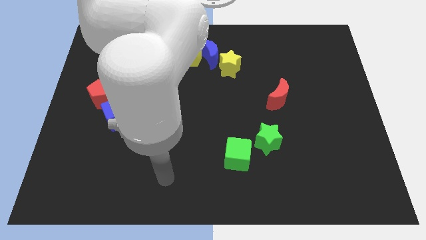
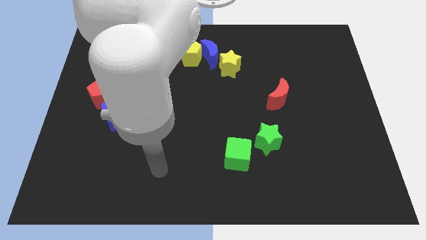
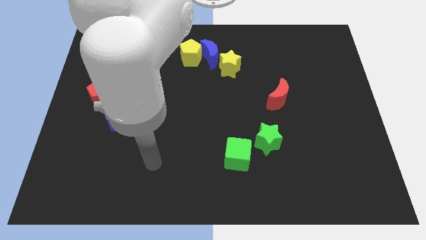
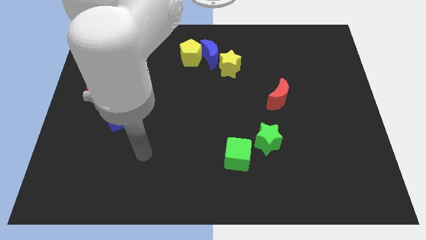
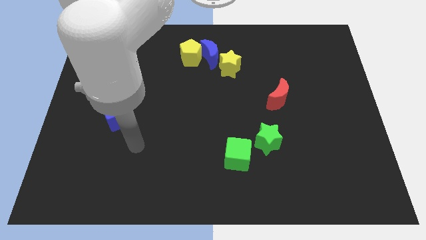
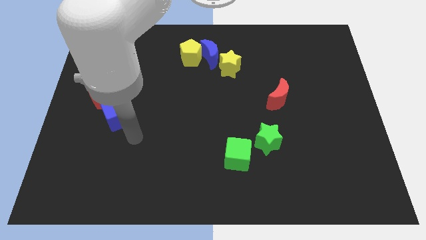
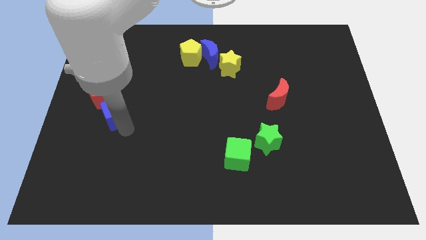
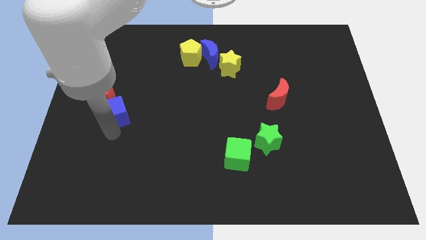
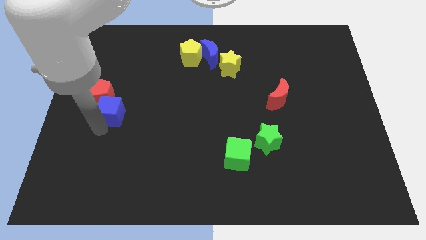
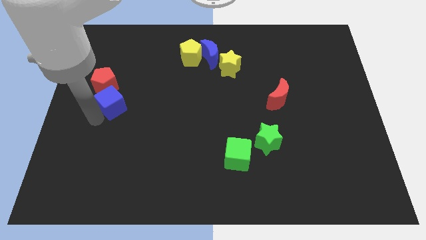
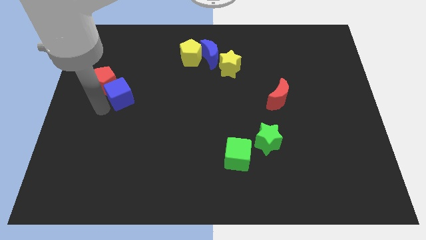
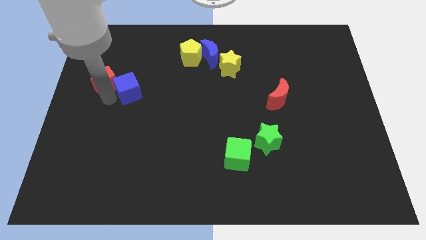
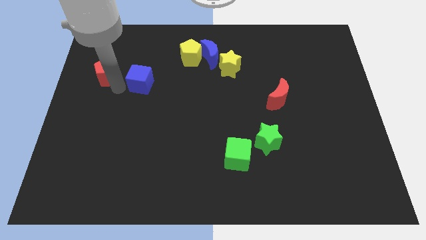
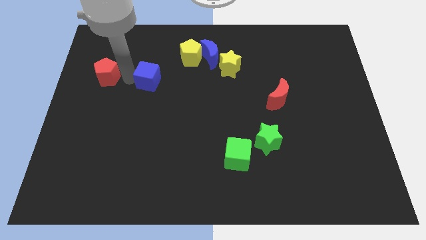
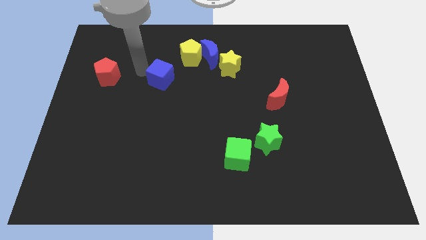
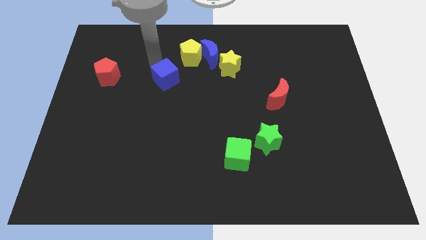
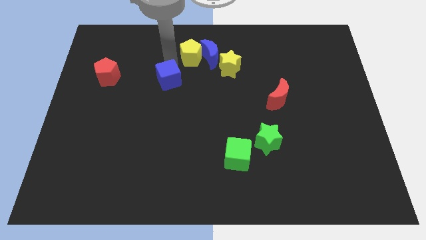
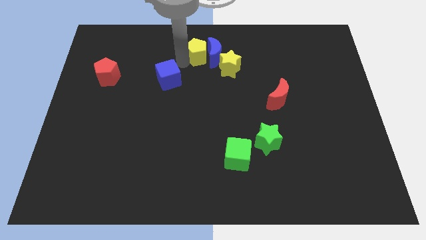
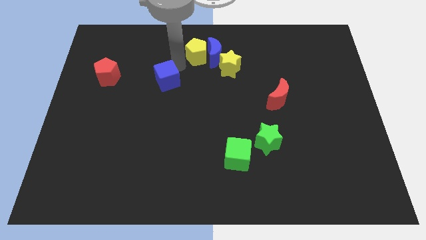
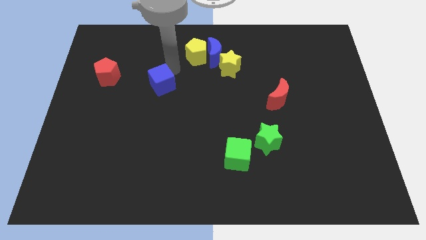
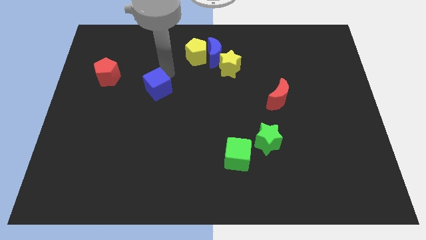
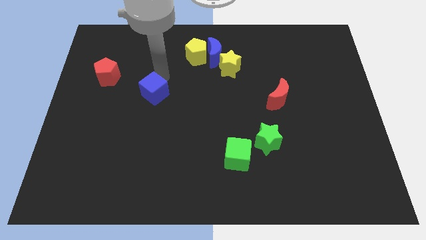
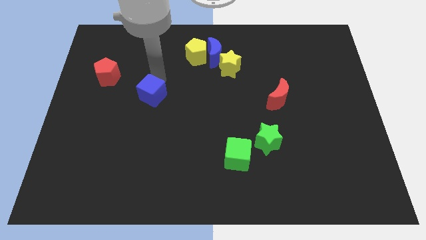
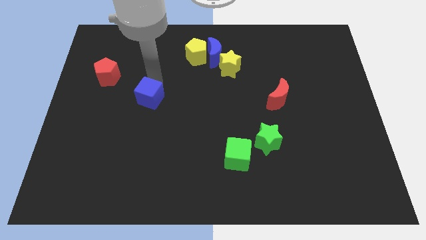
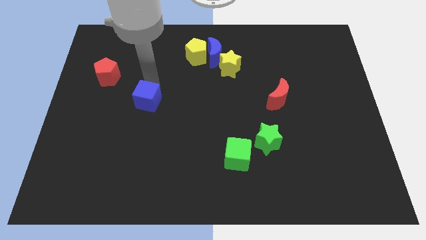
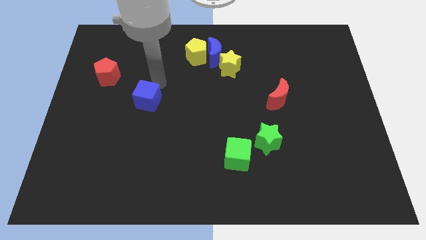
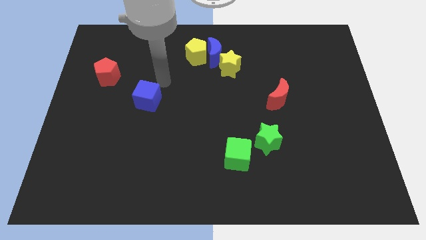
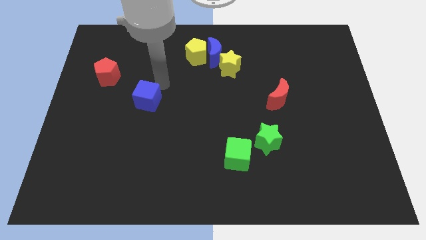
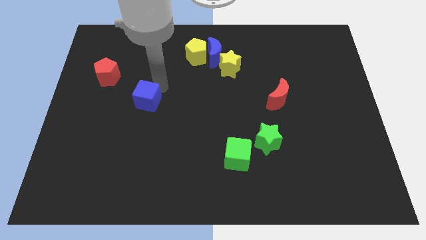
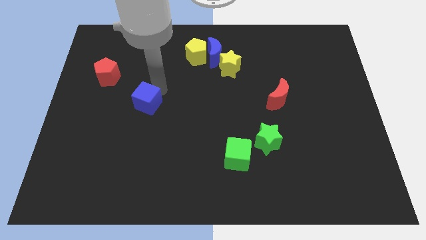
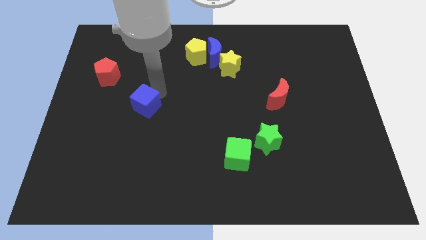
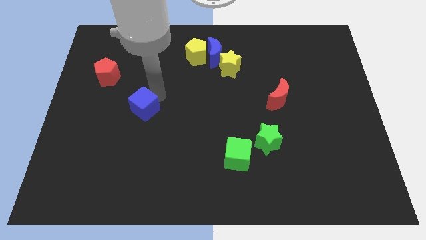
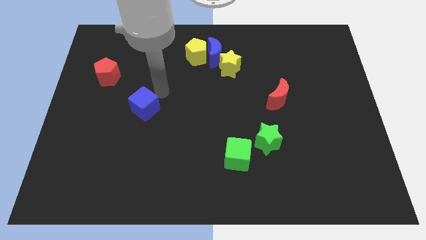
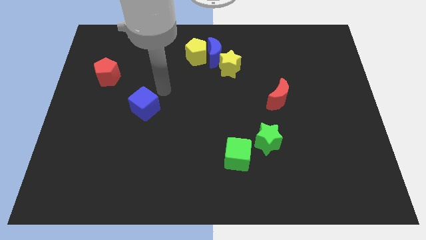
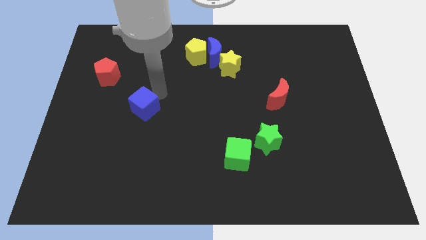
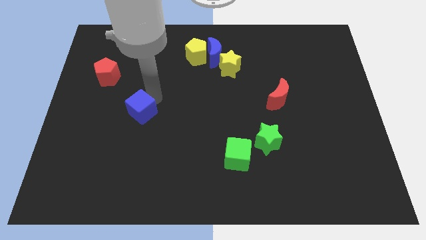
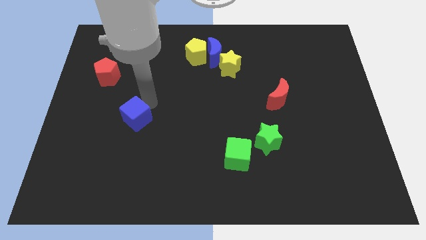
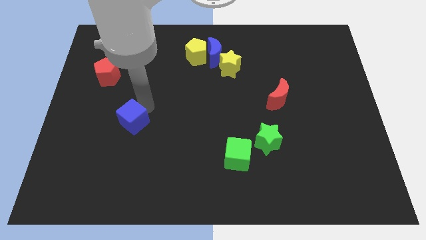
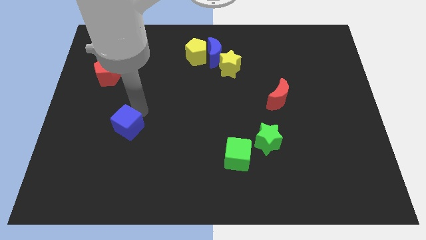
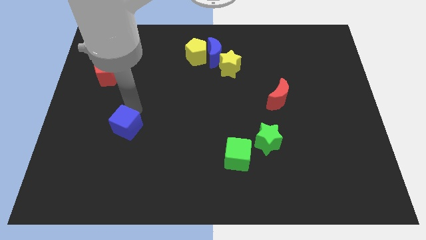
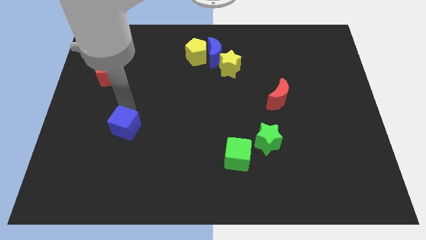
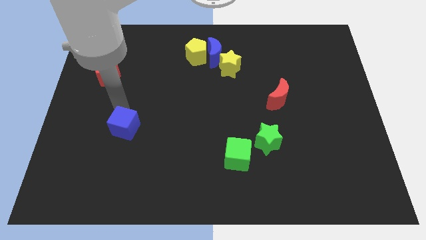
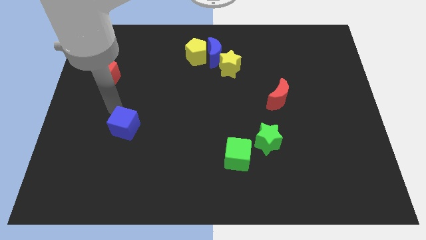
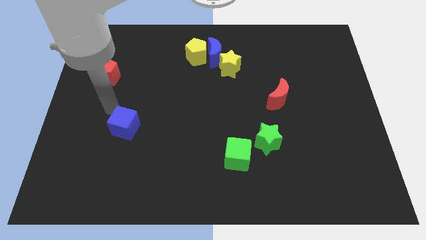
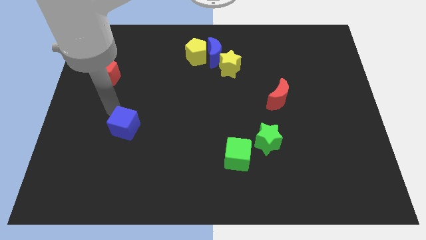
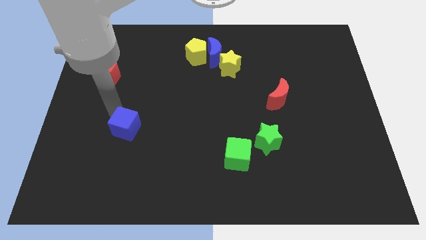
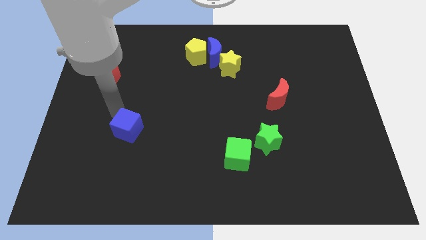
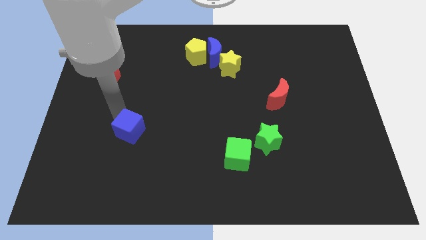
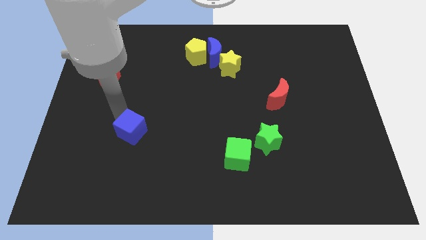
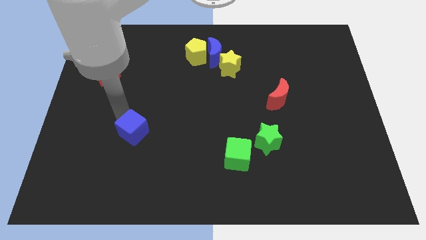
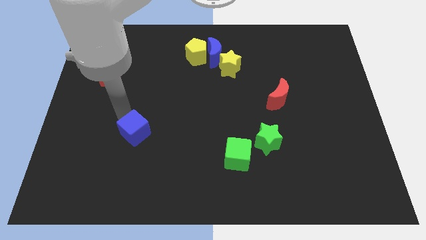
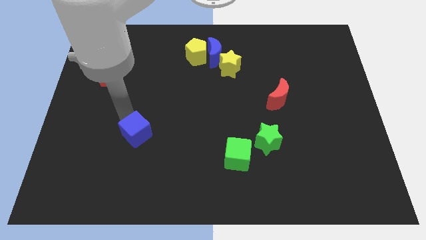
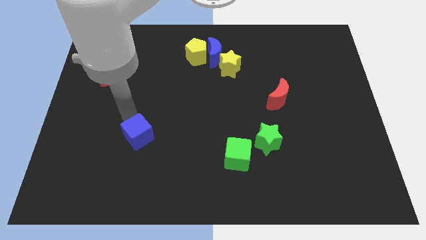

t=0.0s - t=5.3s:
push the blue cube slightly downwards and to the right diagonally

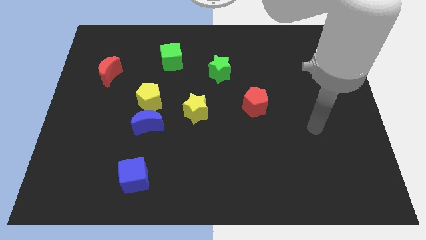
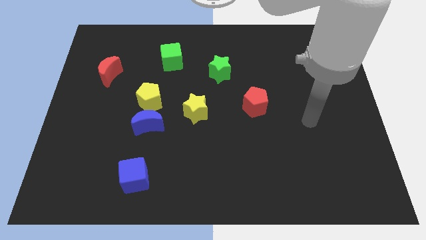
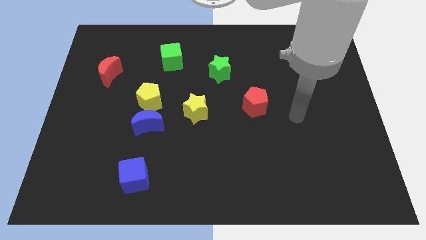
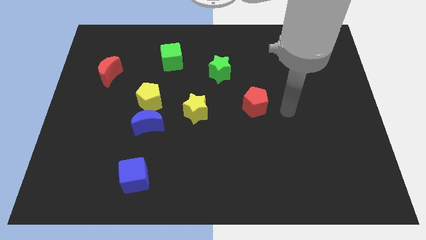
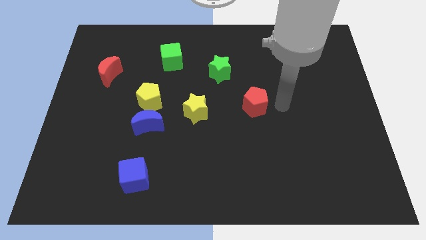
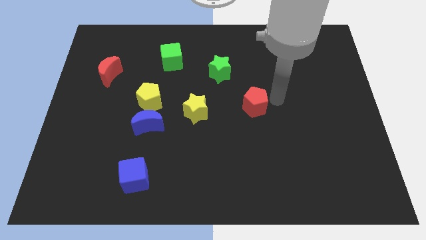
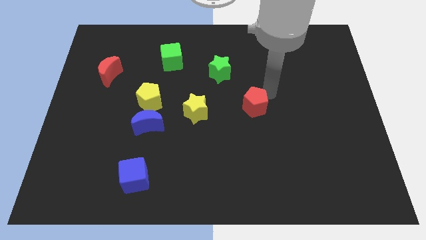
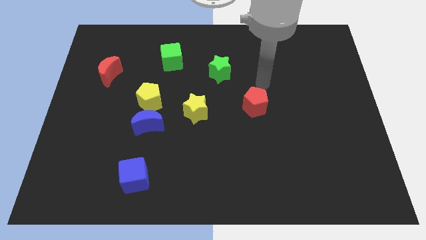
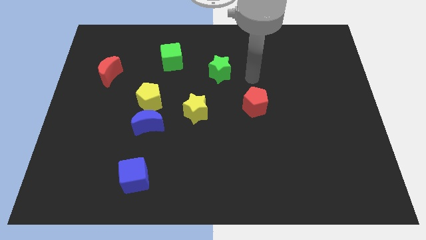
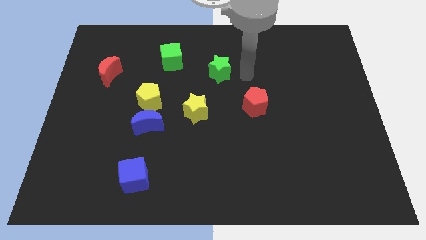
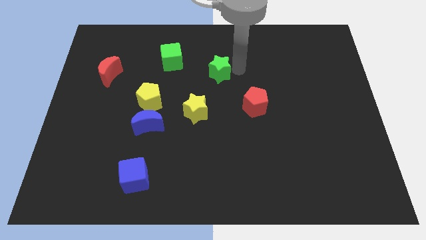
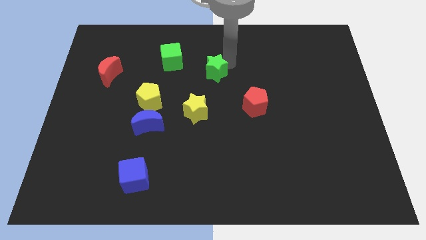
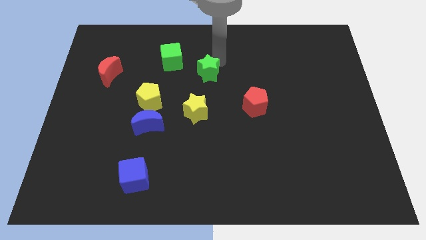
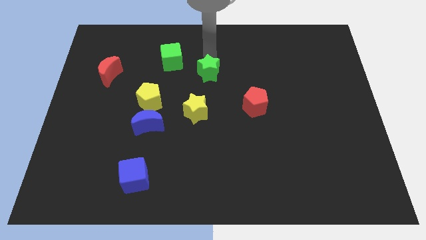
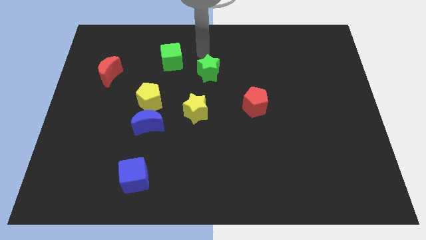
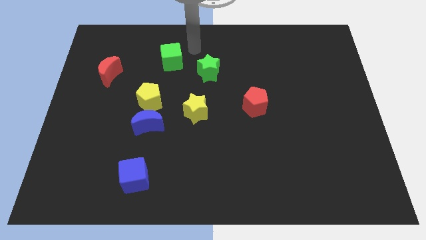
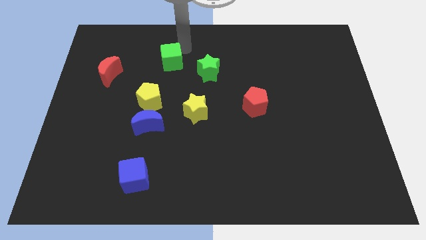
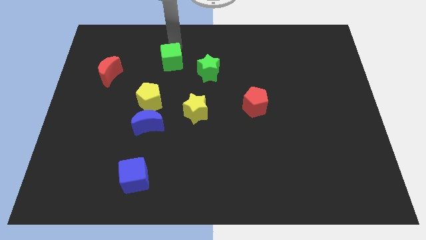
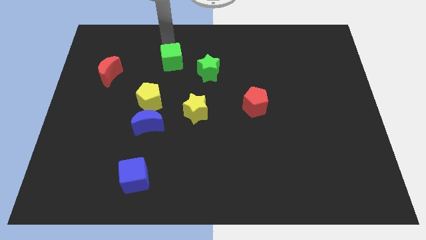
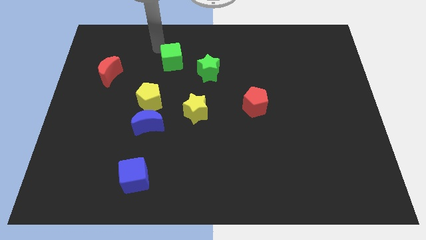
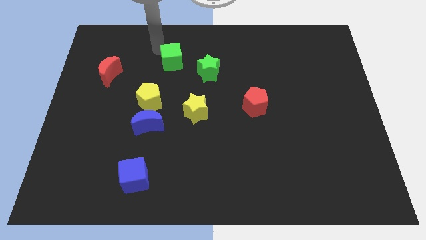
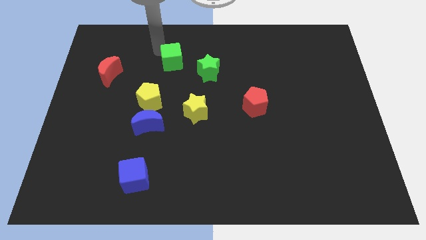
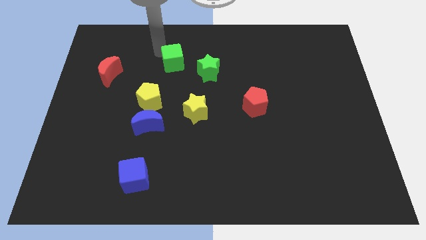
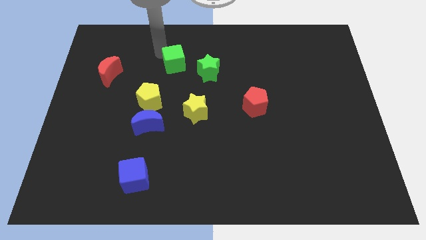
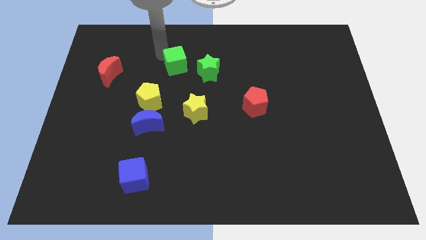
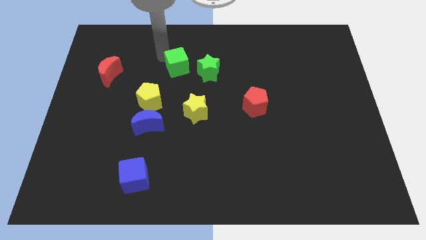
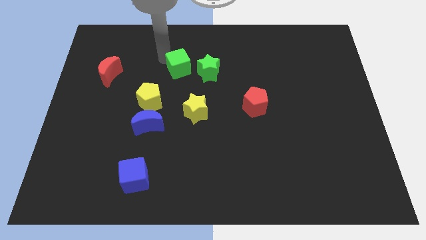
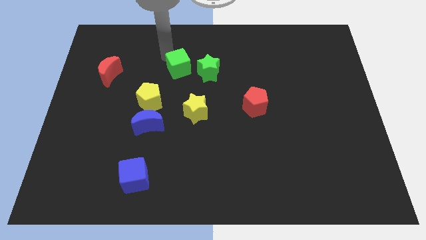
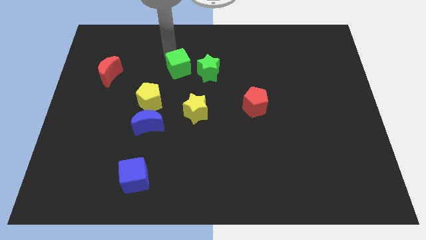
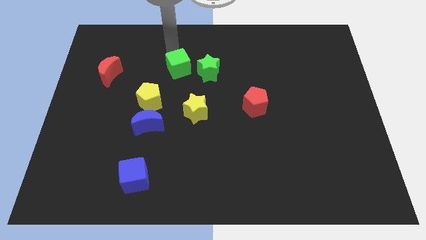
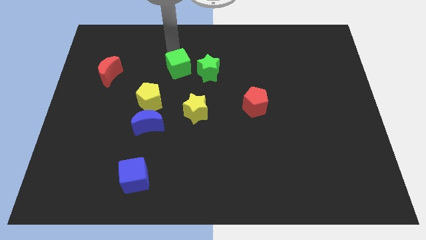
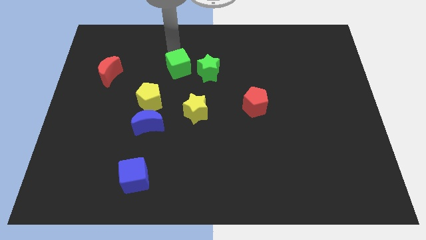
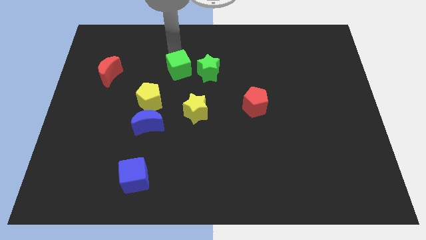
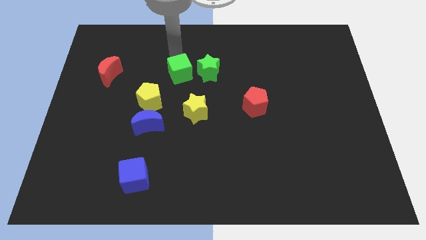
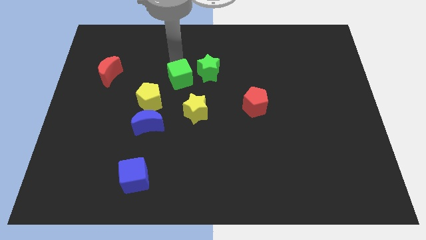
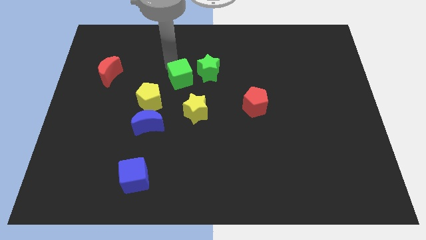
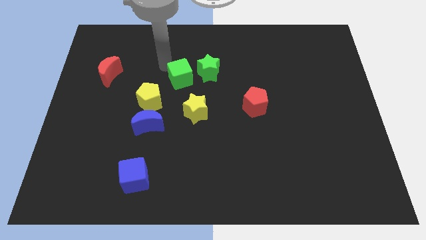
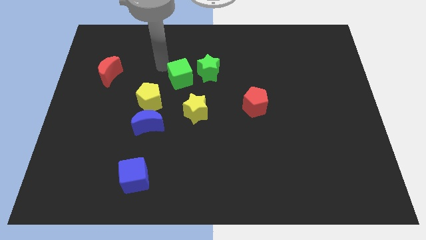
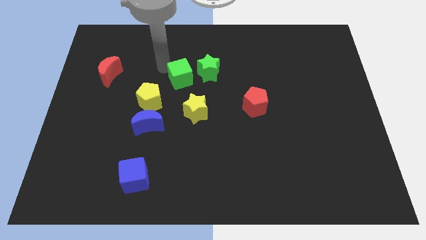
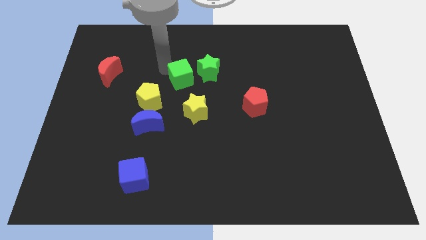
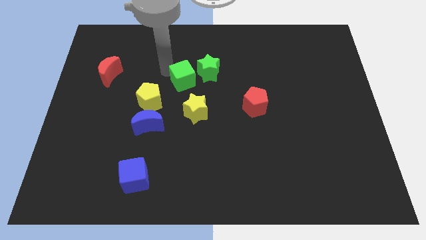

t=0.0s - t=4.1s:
move the green cube down and right a little
